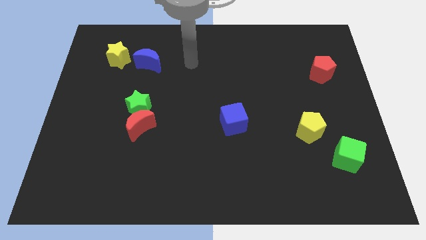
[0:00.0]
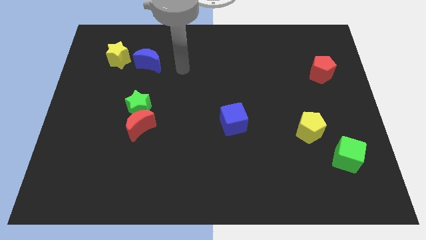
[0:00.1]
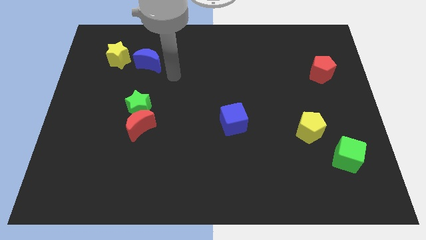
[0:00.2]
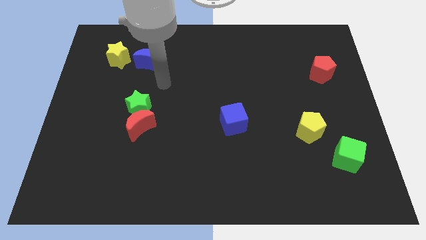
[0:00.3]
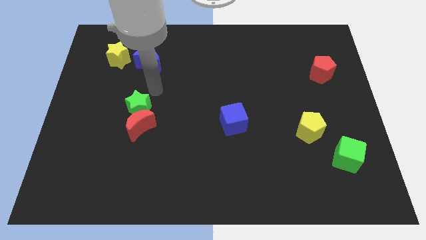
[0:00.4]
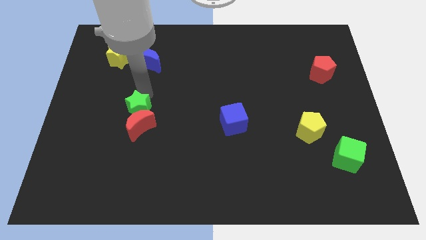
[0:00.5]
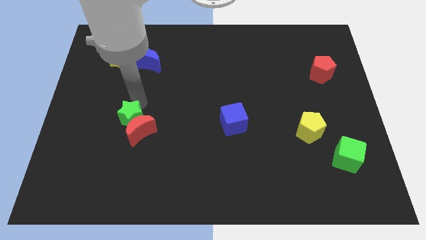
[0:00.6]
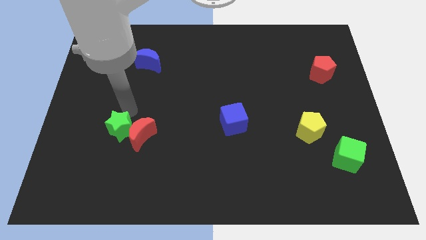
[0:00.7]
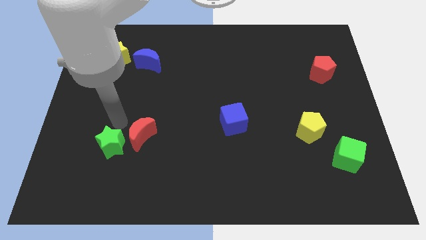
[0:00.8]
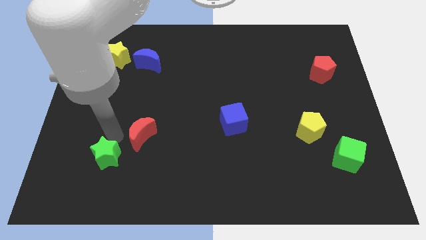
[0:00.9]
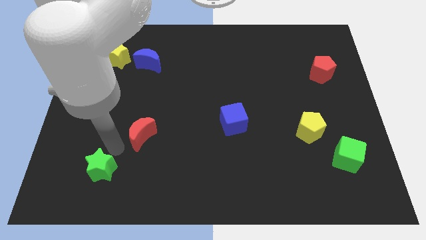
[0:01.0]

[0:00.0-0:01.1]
move the red moon away from the green star

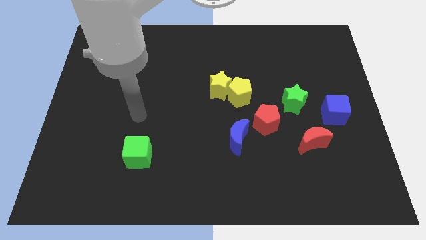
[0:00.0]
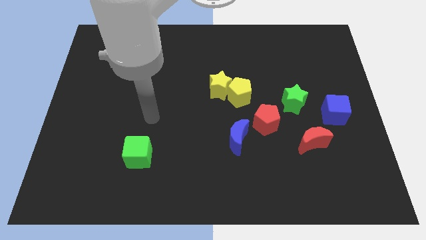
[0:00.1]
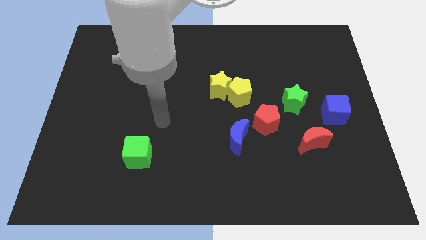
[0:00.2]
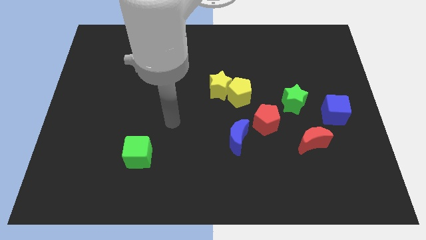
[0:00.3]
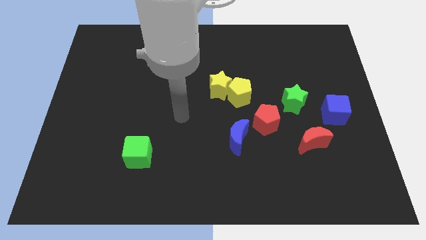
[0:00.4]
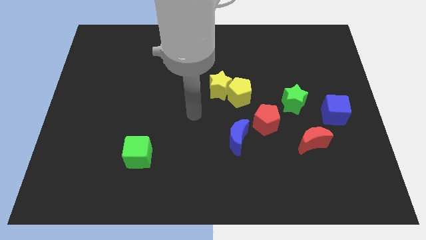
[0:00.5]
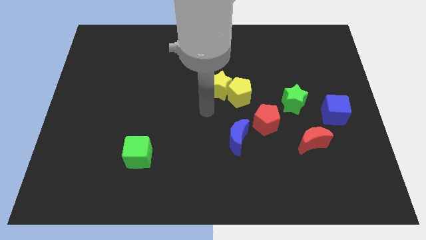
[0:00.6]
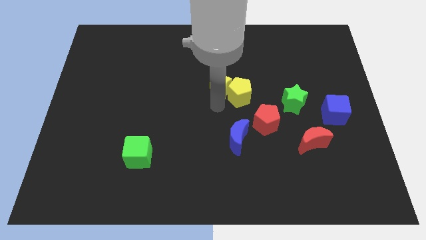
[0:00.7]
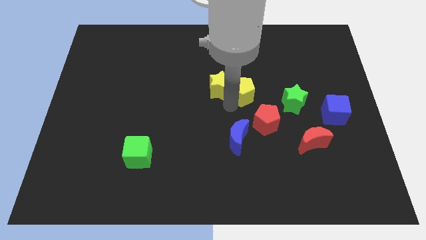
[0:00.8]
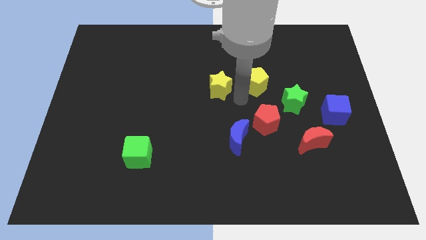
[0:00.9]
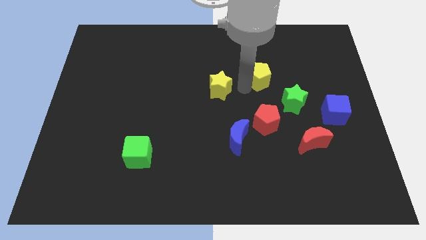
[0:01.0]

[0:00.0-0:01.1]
separate the yellow star from the yellow pentagon

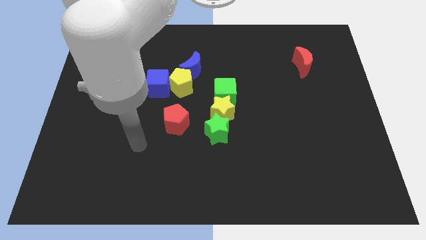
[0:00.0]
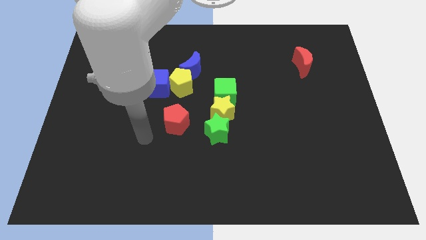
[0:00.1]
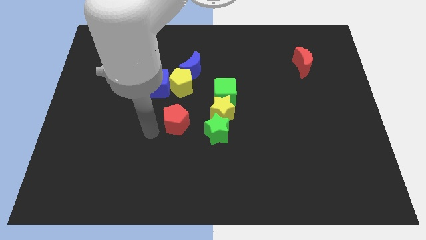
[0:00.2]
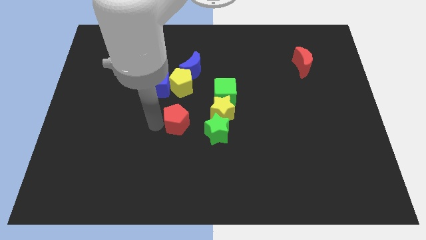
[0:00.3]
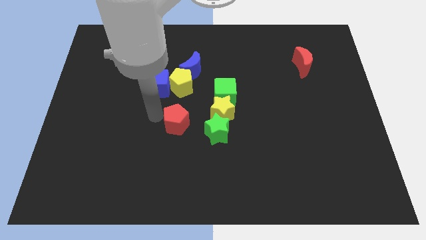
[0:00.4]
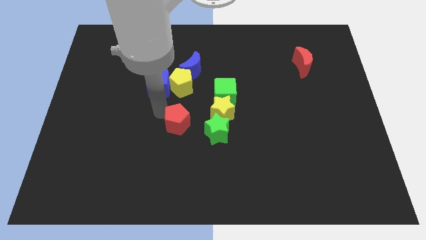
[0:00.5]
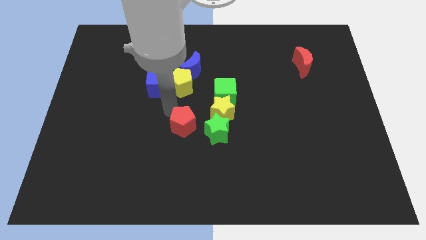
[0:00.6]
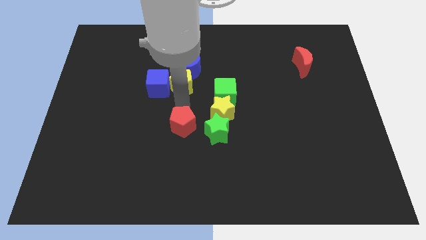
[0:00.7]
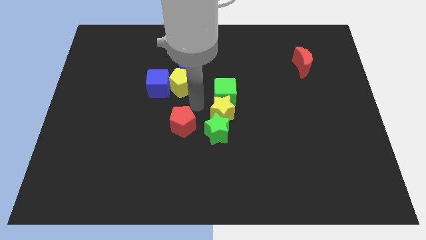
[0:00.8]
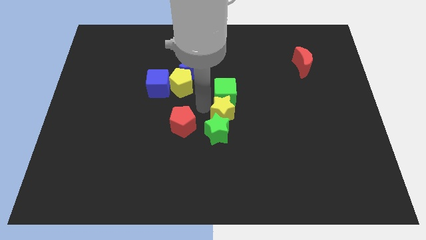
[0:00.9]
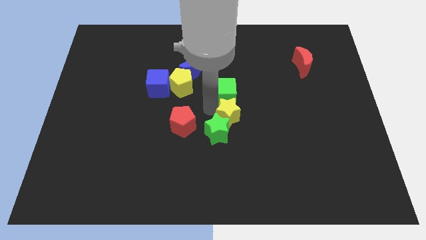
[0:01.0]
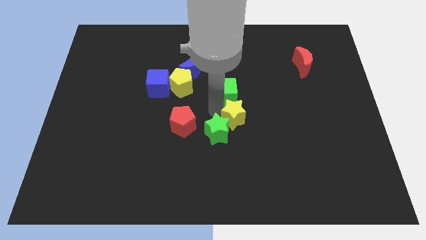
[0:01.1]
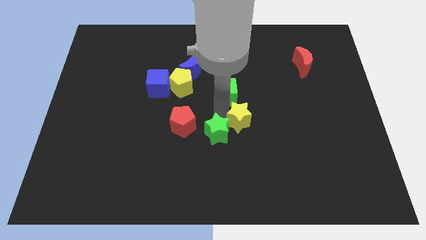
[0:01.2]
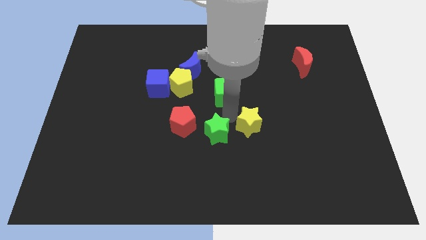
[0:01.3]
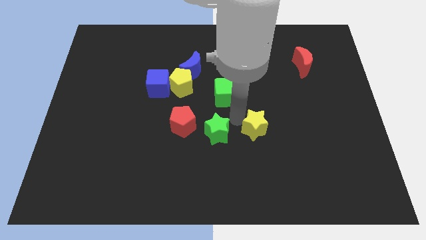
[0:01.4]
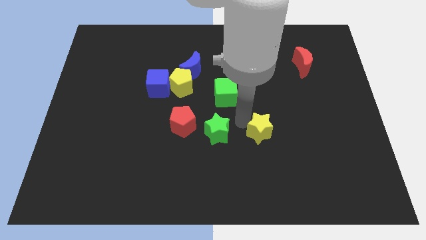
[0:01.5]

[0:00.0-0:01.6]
pull the yellow star apart from the green star and green cube

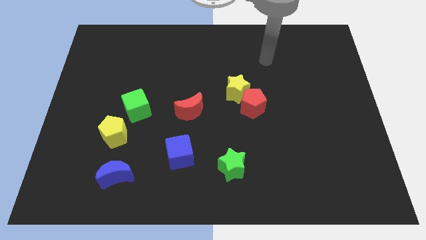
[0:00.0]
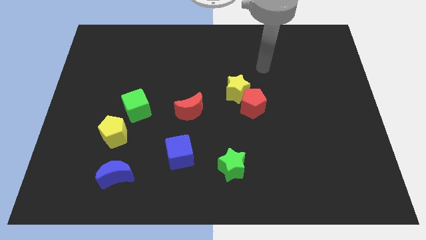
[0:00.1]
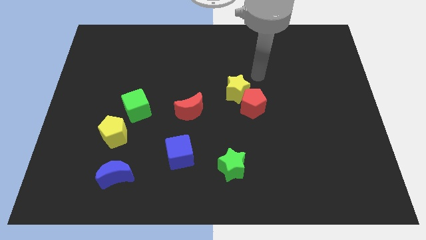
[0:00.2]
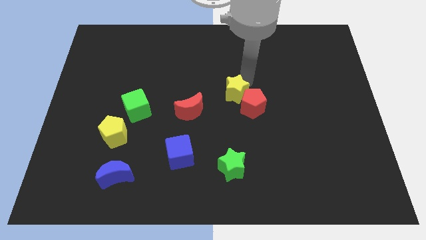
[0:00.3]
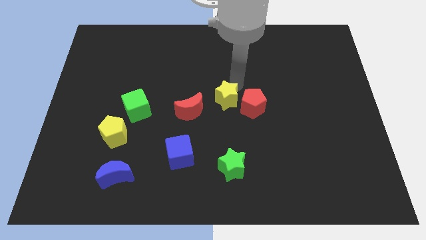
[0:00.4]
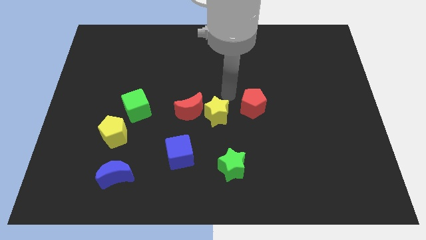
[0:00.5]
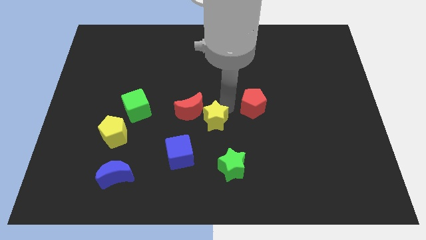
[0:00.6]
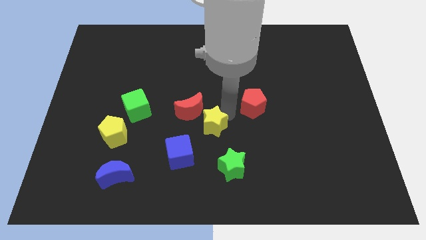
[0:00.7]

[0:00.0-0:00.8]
move the red pentagon away from the yellow star

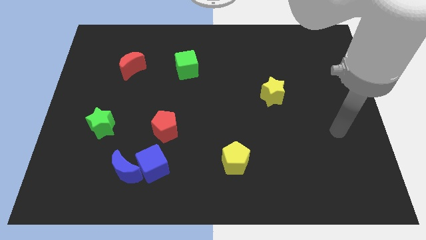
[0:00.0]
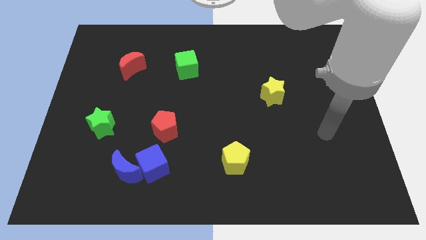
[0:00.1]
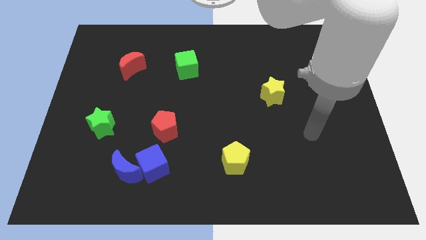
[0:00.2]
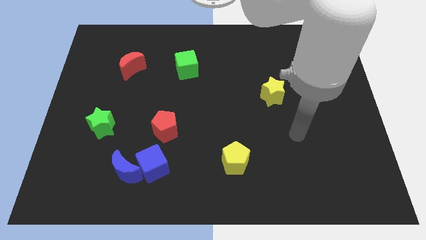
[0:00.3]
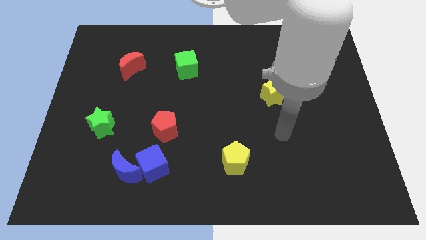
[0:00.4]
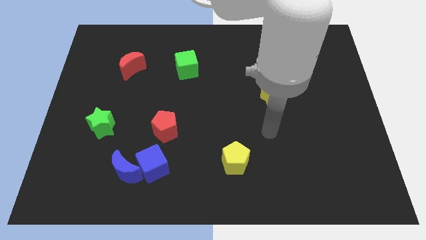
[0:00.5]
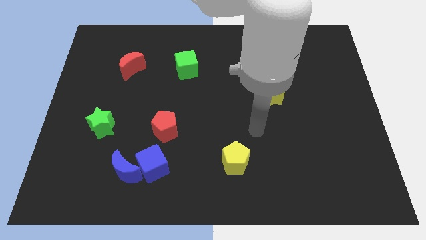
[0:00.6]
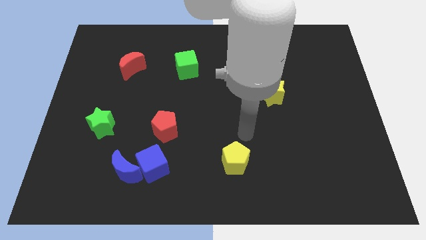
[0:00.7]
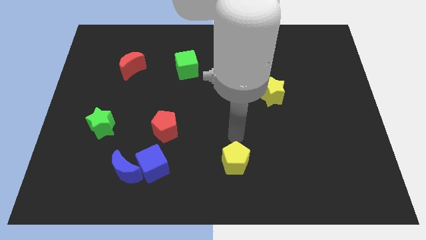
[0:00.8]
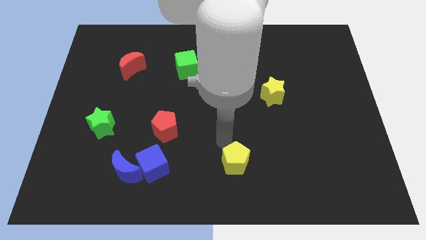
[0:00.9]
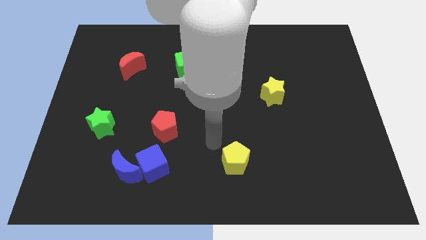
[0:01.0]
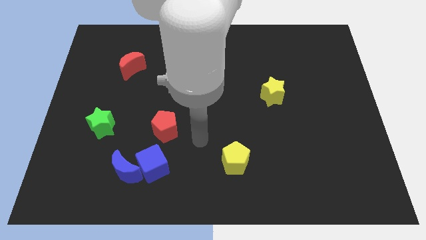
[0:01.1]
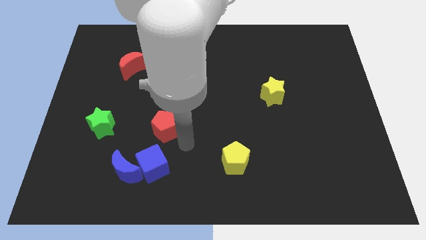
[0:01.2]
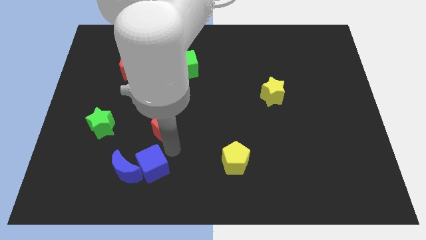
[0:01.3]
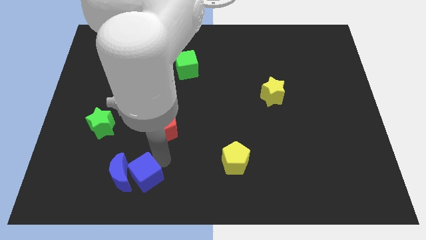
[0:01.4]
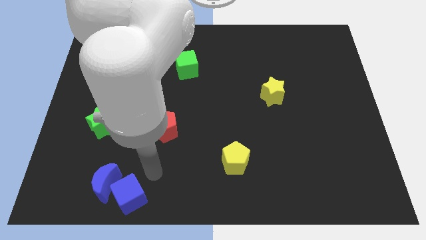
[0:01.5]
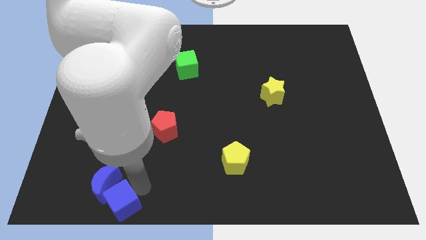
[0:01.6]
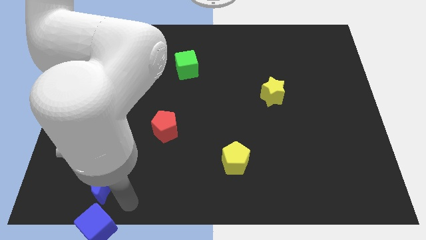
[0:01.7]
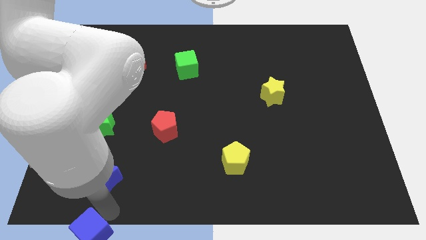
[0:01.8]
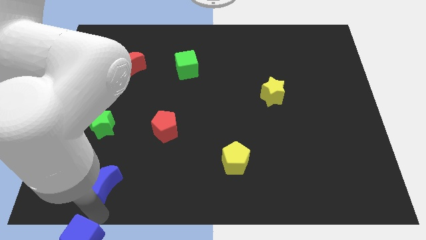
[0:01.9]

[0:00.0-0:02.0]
pull the blue moon apart from the blue cube

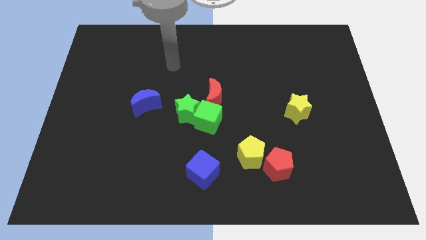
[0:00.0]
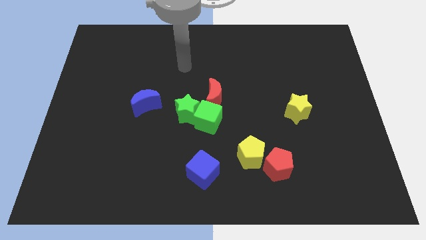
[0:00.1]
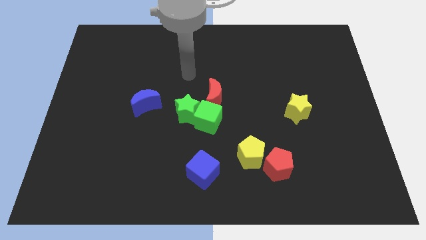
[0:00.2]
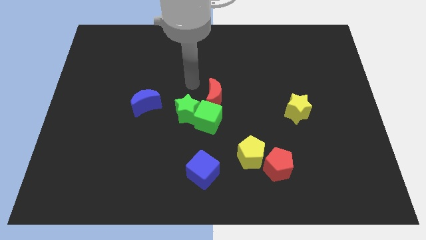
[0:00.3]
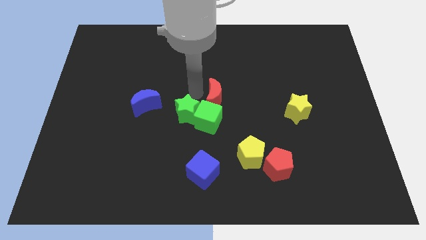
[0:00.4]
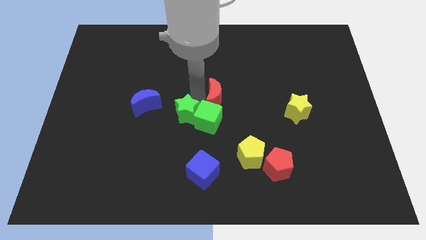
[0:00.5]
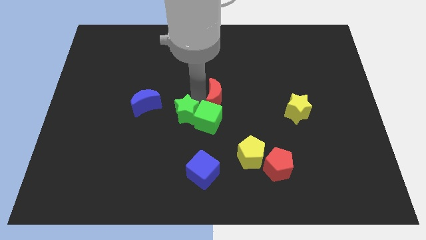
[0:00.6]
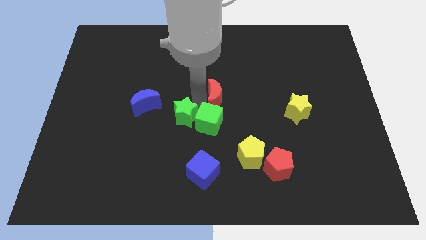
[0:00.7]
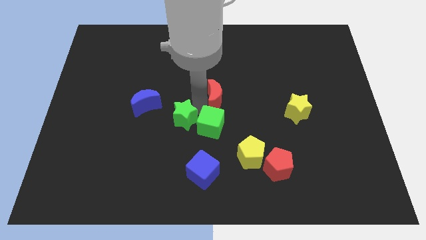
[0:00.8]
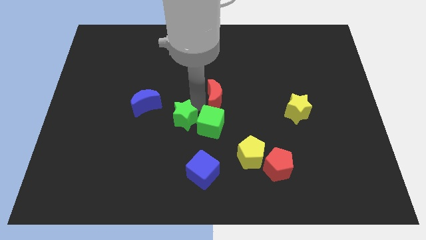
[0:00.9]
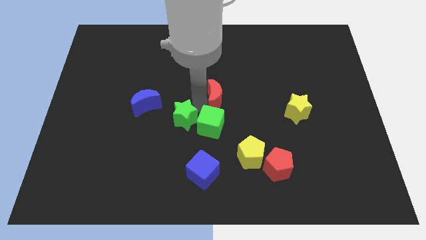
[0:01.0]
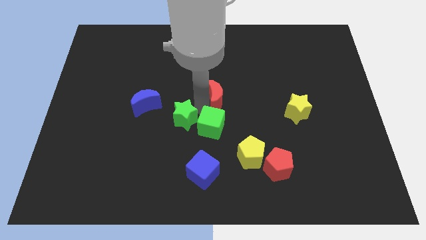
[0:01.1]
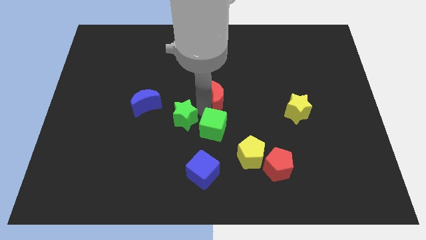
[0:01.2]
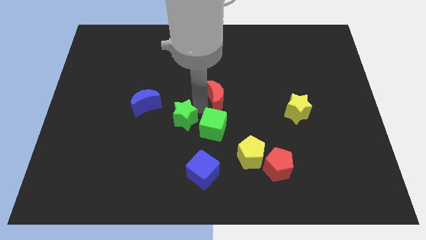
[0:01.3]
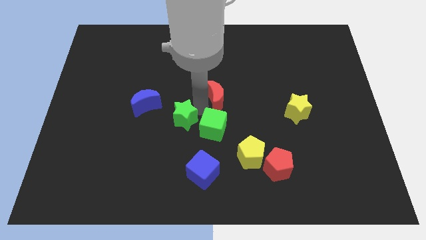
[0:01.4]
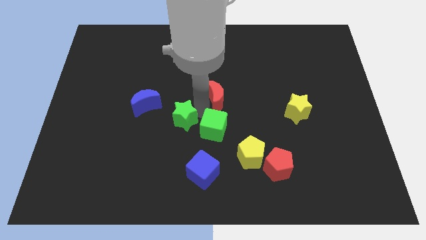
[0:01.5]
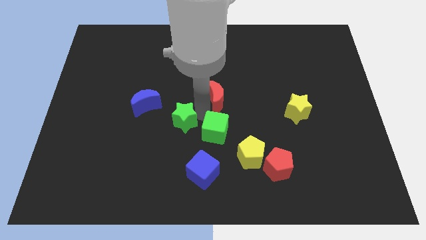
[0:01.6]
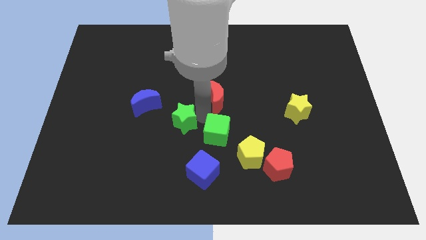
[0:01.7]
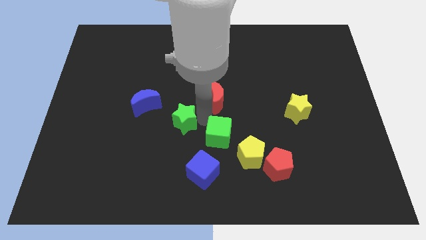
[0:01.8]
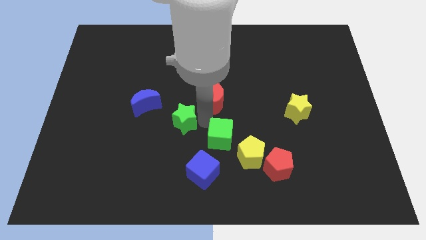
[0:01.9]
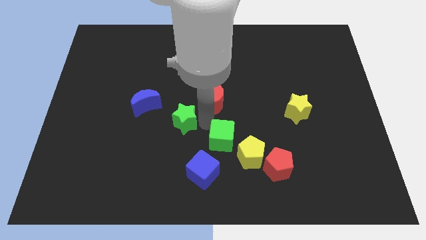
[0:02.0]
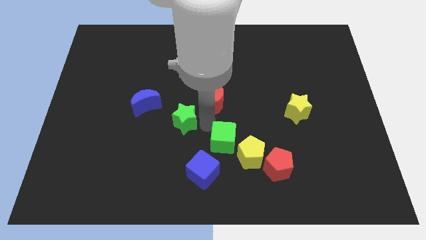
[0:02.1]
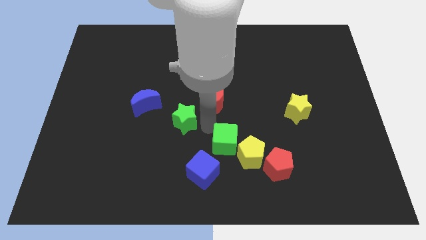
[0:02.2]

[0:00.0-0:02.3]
separate the green cube from the green star and red moon

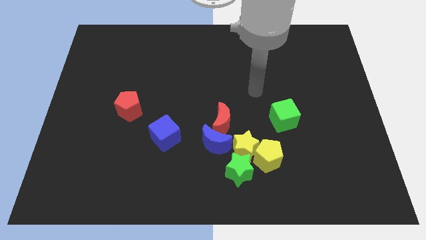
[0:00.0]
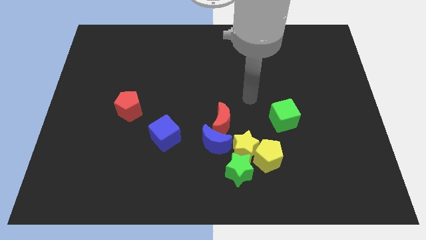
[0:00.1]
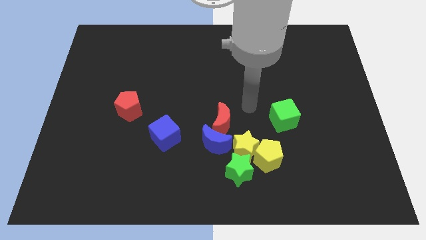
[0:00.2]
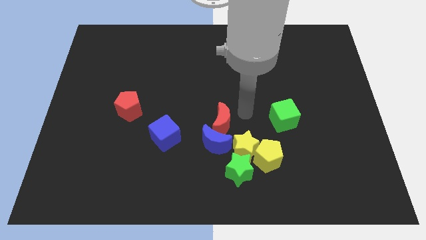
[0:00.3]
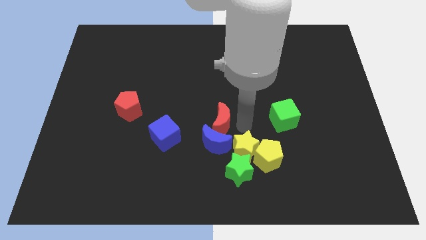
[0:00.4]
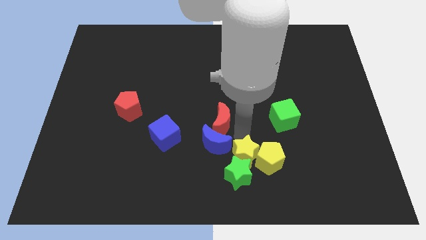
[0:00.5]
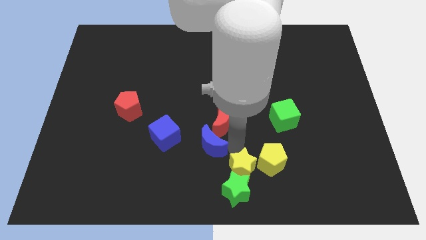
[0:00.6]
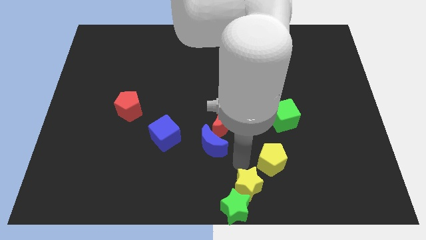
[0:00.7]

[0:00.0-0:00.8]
pull the yellow pentagon apart from the yellow star and green star
